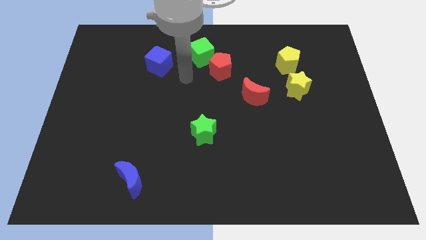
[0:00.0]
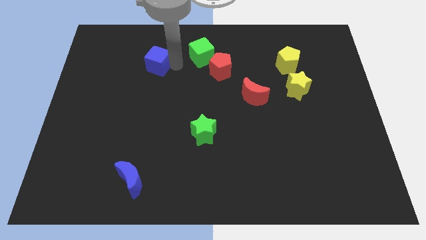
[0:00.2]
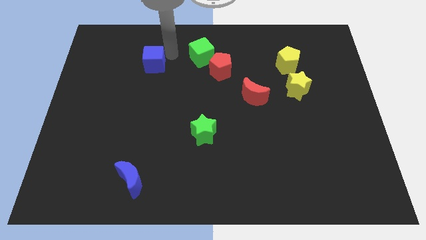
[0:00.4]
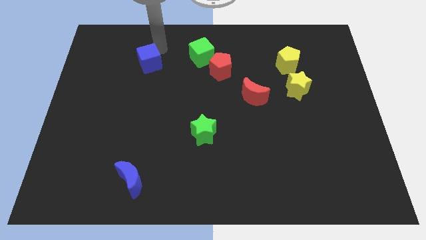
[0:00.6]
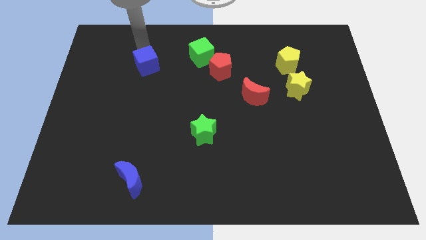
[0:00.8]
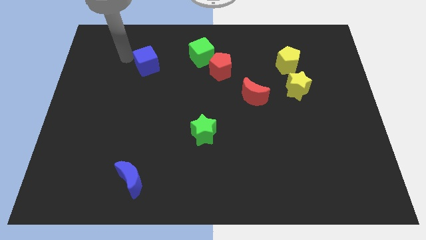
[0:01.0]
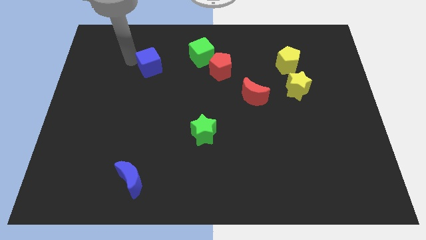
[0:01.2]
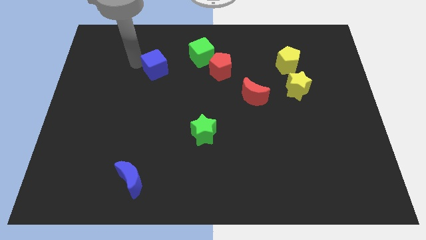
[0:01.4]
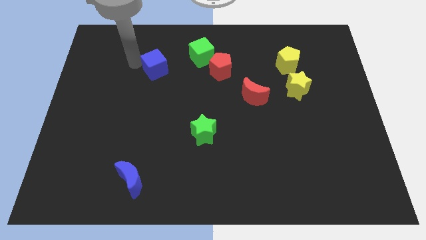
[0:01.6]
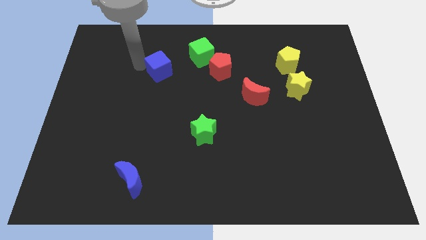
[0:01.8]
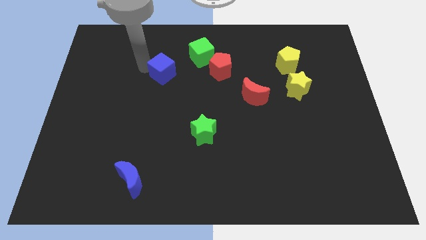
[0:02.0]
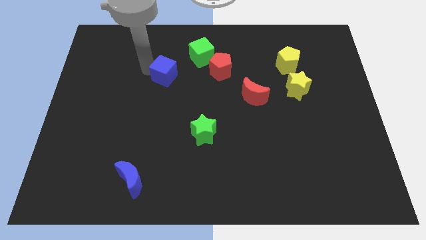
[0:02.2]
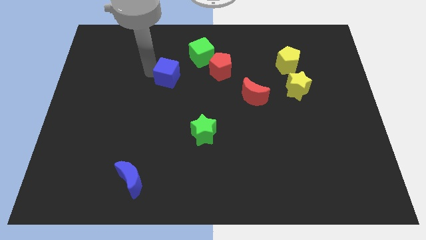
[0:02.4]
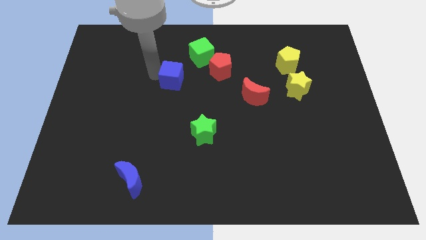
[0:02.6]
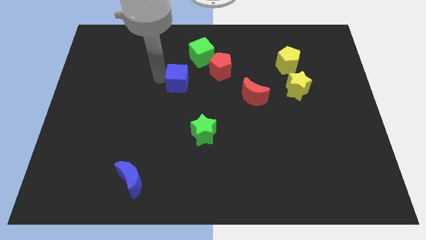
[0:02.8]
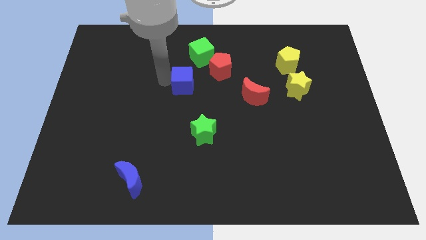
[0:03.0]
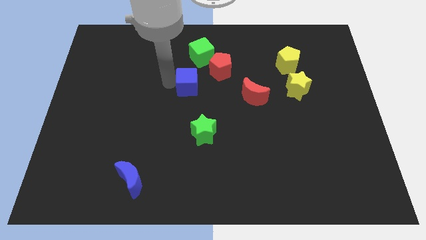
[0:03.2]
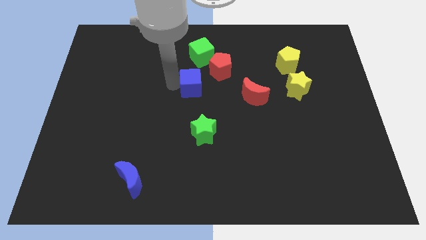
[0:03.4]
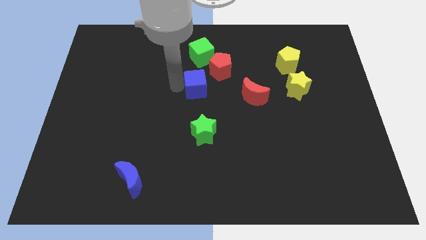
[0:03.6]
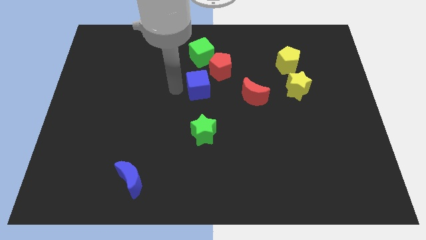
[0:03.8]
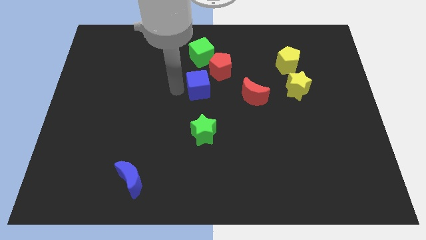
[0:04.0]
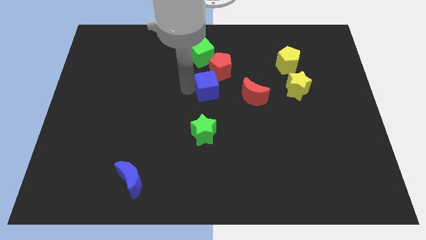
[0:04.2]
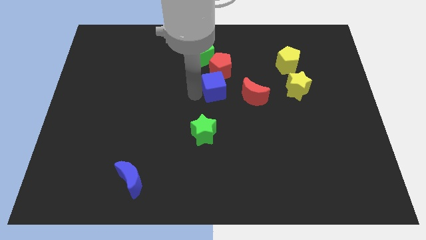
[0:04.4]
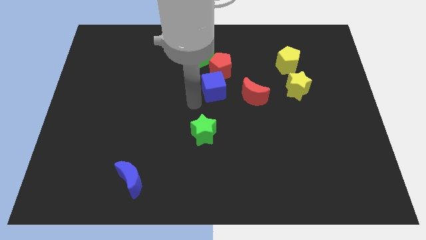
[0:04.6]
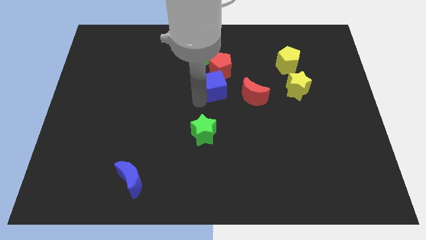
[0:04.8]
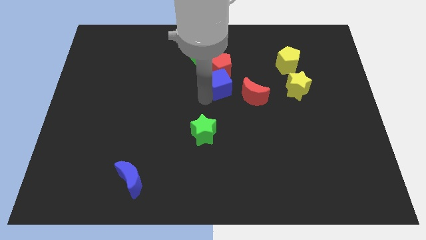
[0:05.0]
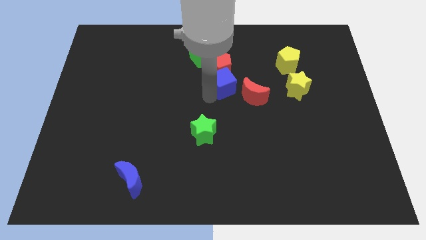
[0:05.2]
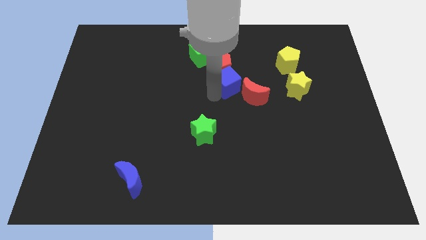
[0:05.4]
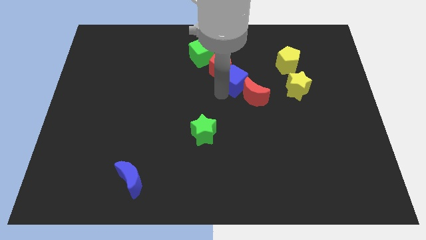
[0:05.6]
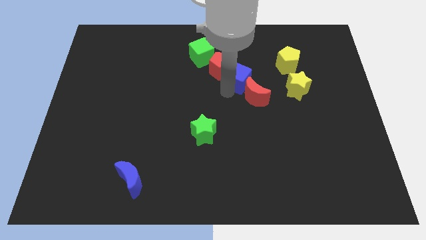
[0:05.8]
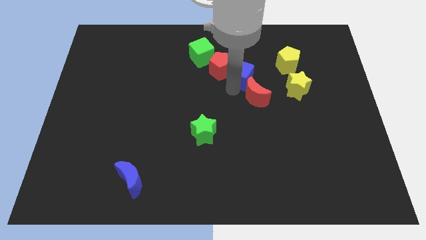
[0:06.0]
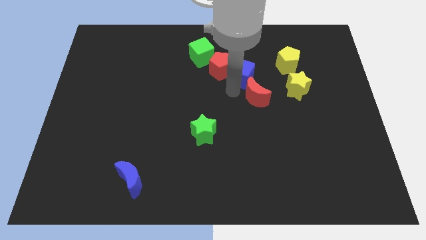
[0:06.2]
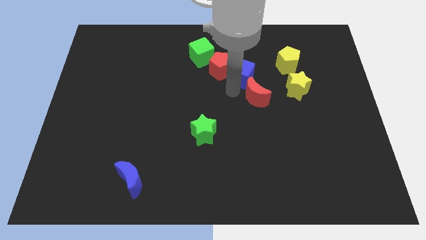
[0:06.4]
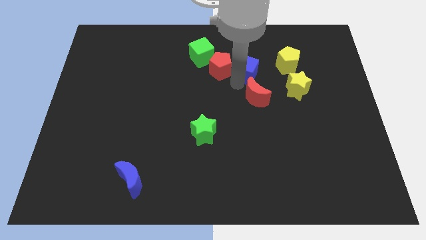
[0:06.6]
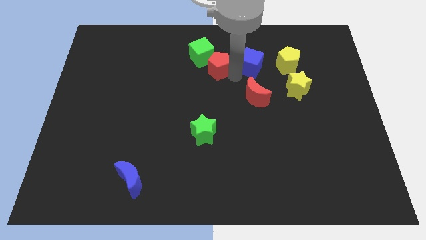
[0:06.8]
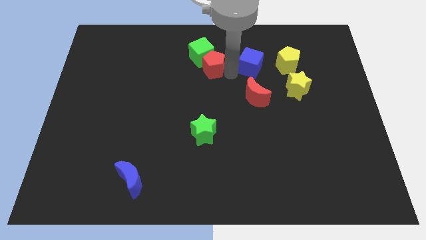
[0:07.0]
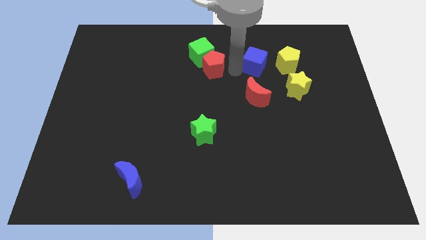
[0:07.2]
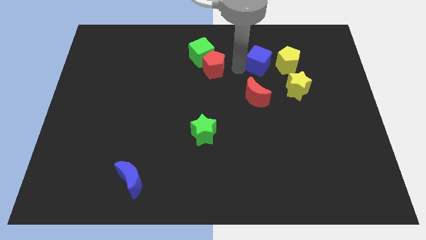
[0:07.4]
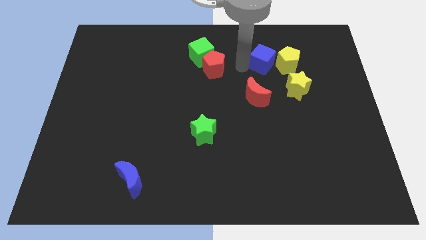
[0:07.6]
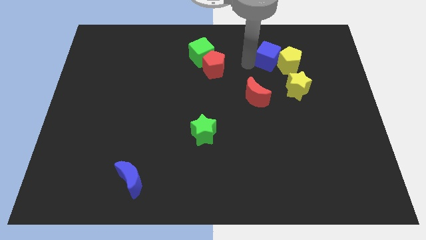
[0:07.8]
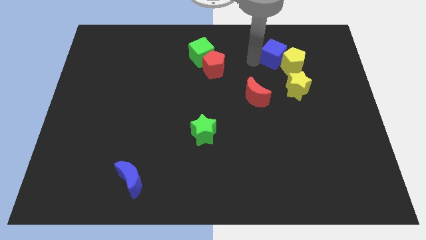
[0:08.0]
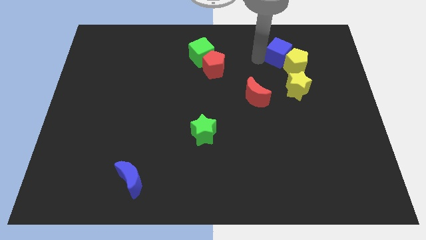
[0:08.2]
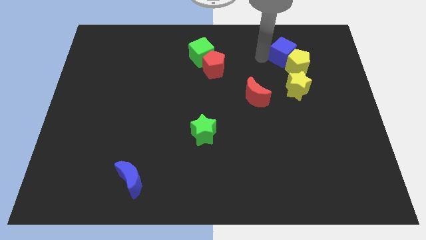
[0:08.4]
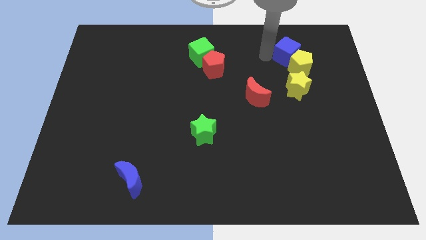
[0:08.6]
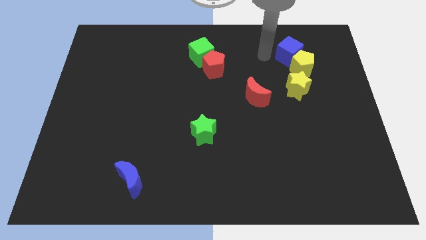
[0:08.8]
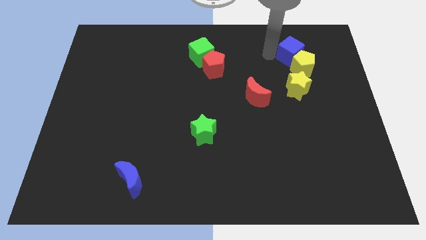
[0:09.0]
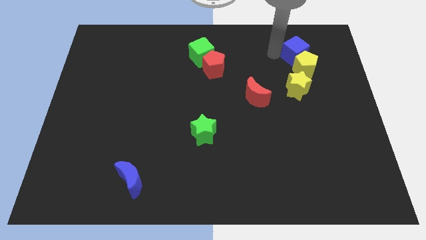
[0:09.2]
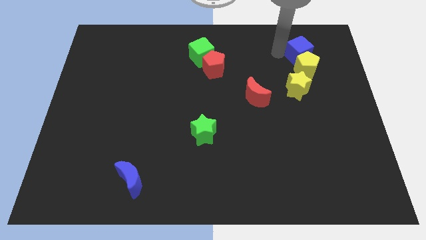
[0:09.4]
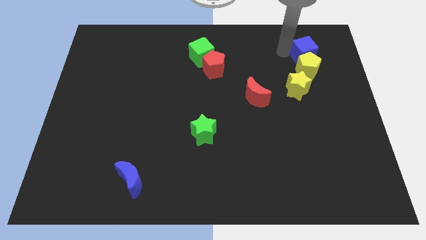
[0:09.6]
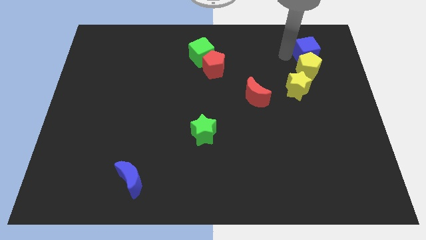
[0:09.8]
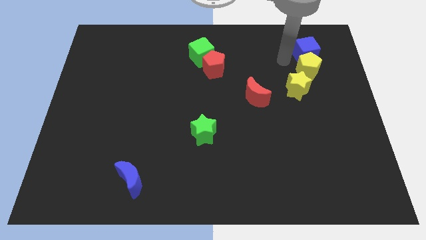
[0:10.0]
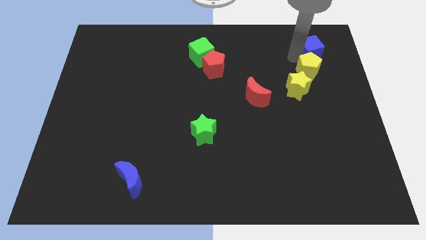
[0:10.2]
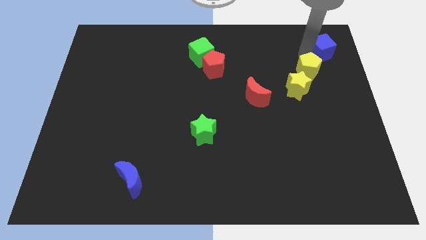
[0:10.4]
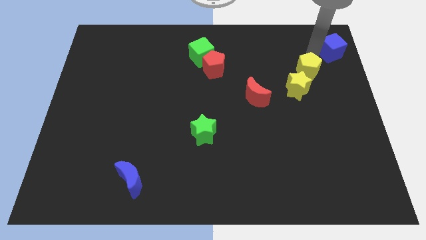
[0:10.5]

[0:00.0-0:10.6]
put the blue cube to the upper right corner
